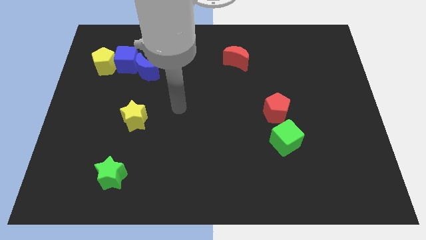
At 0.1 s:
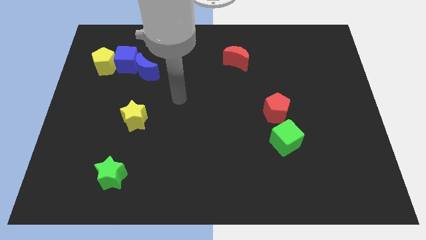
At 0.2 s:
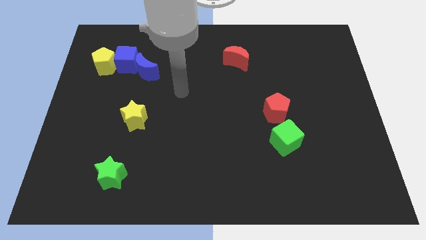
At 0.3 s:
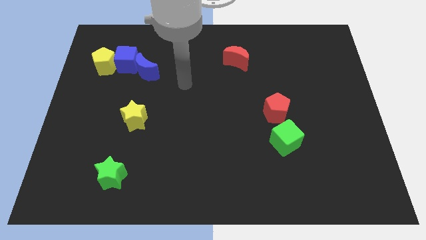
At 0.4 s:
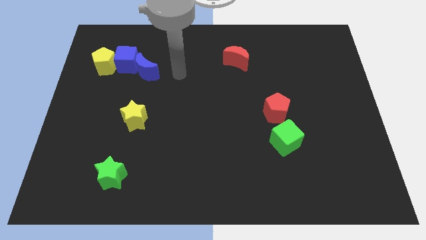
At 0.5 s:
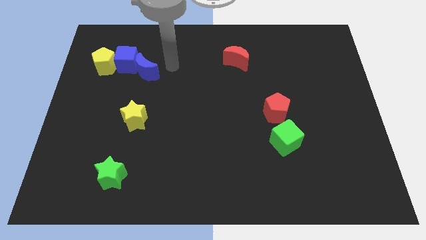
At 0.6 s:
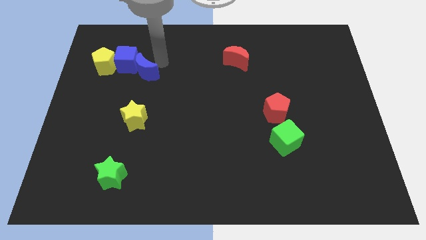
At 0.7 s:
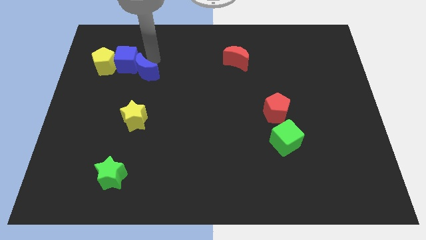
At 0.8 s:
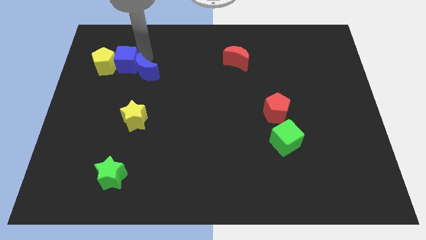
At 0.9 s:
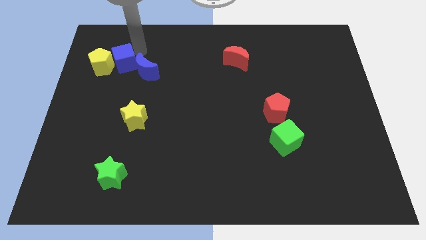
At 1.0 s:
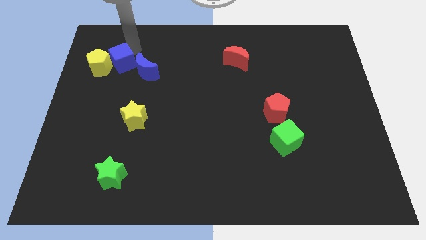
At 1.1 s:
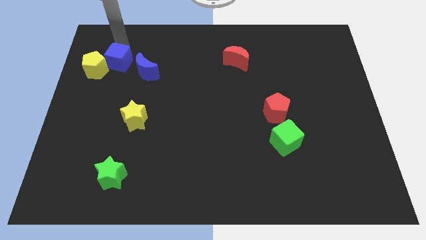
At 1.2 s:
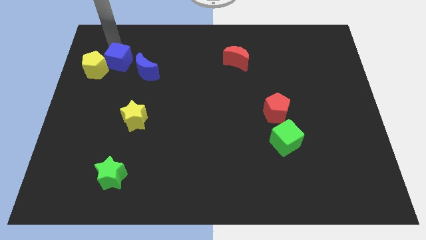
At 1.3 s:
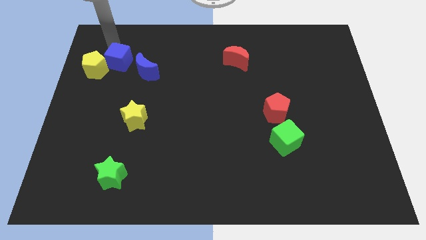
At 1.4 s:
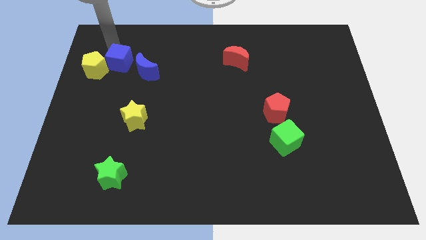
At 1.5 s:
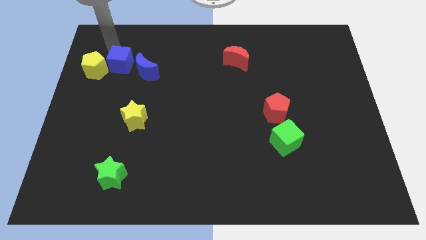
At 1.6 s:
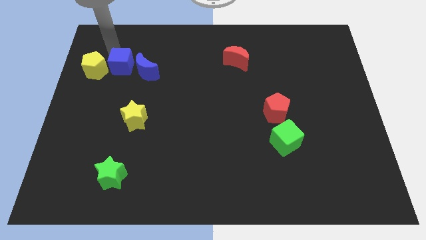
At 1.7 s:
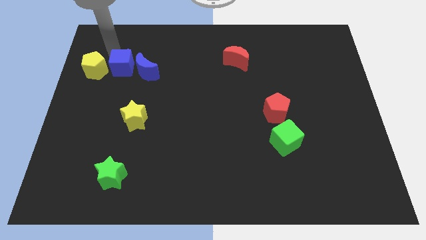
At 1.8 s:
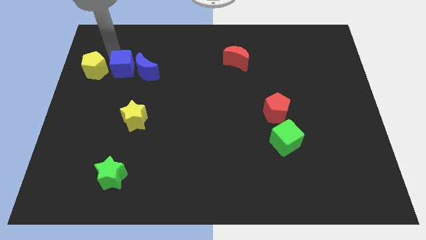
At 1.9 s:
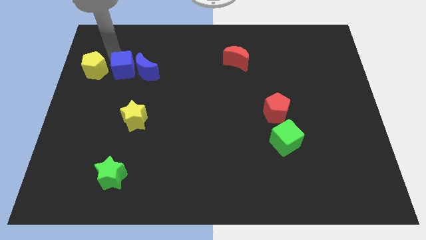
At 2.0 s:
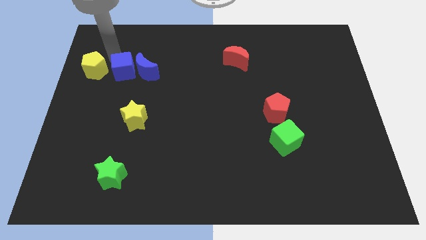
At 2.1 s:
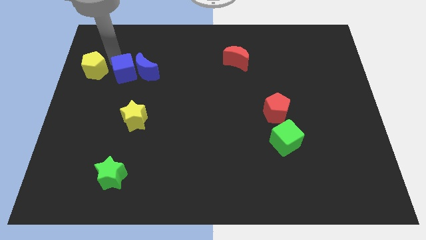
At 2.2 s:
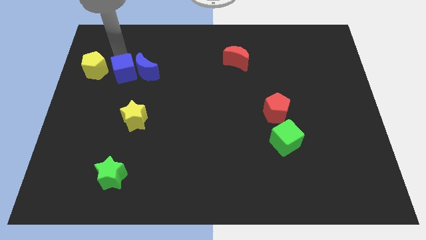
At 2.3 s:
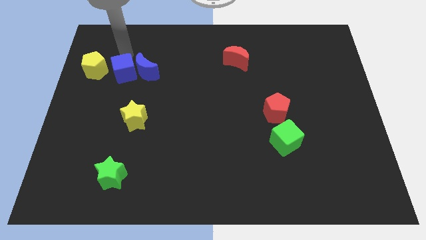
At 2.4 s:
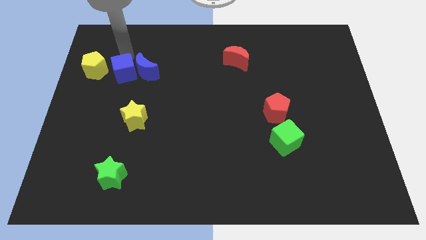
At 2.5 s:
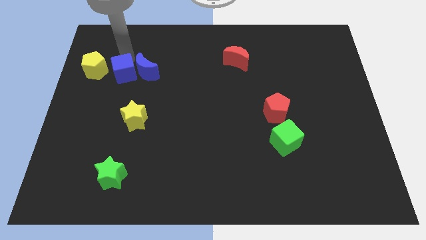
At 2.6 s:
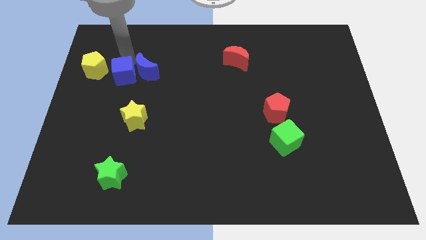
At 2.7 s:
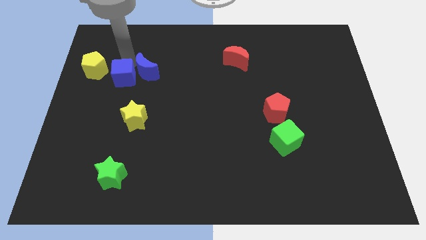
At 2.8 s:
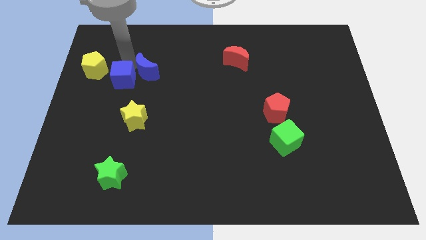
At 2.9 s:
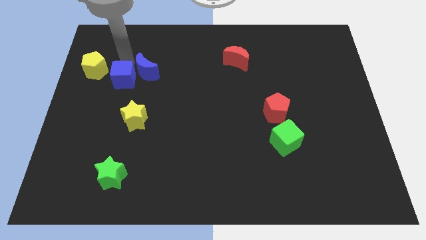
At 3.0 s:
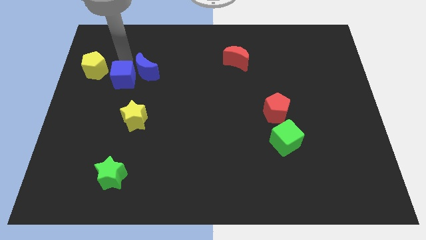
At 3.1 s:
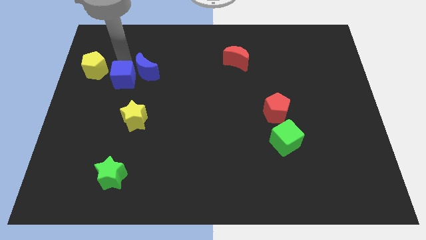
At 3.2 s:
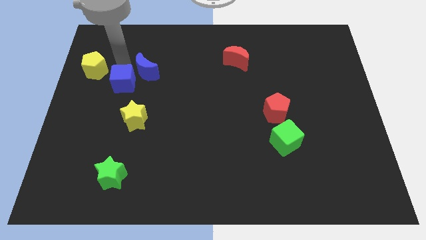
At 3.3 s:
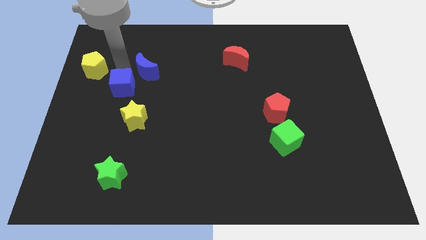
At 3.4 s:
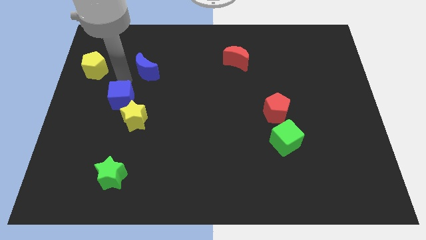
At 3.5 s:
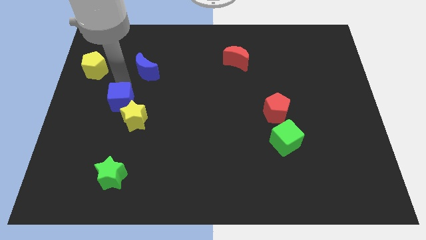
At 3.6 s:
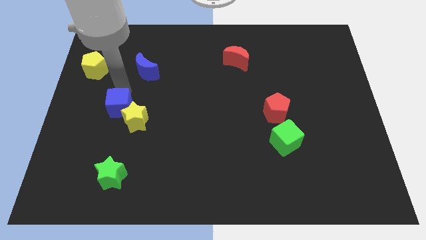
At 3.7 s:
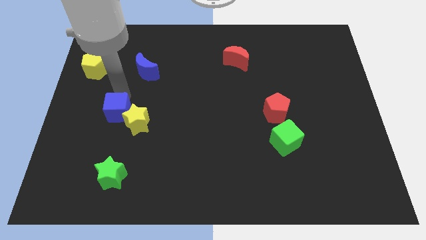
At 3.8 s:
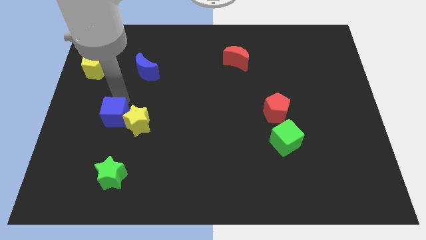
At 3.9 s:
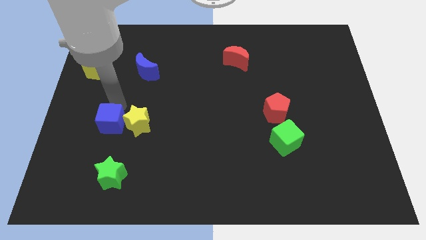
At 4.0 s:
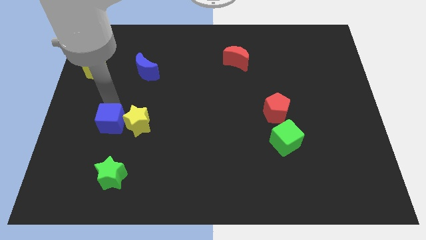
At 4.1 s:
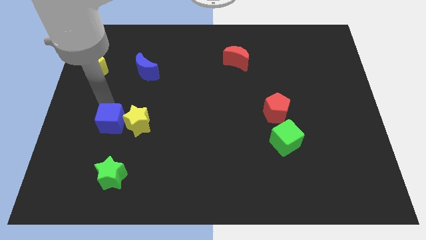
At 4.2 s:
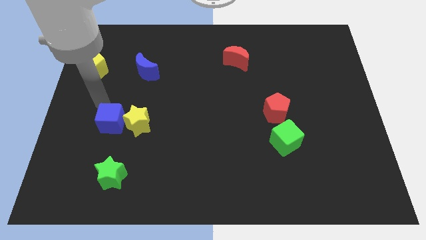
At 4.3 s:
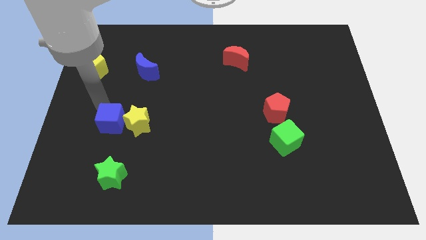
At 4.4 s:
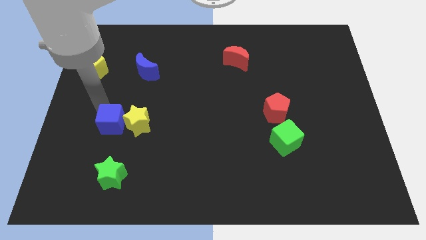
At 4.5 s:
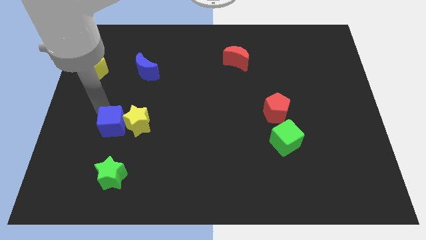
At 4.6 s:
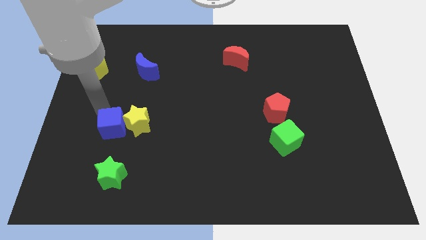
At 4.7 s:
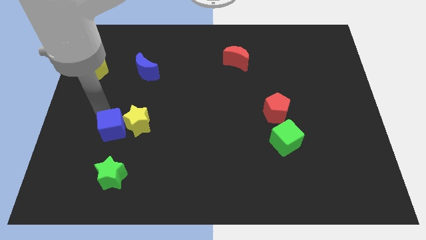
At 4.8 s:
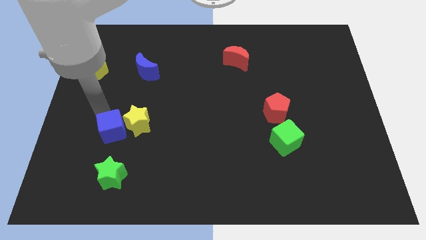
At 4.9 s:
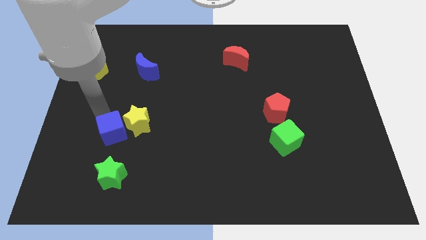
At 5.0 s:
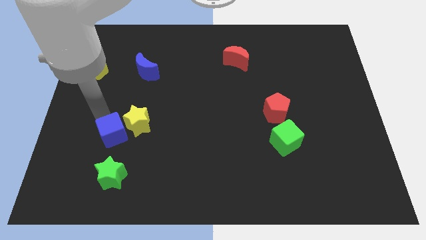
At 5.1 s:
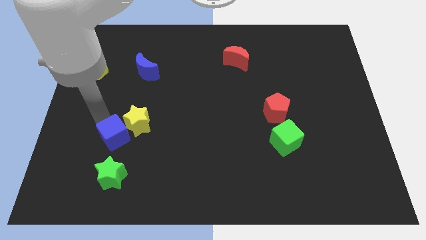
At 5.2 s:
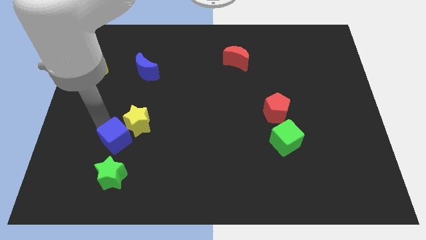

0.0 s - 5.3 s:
slide the blue cube to the bottom of the yellow star
